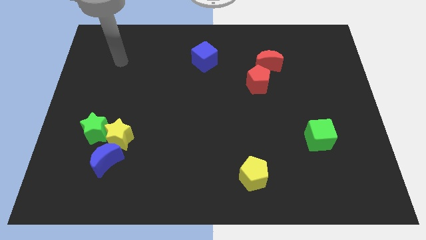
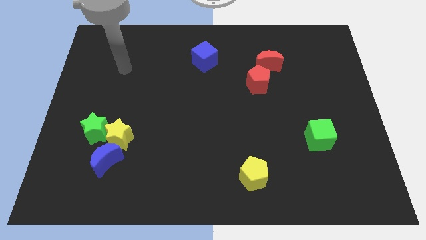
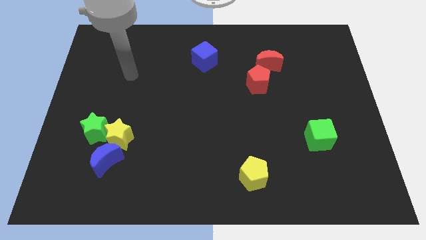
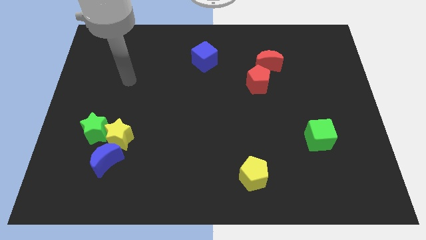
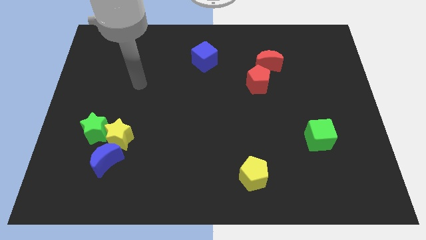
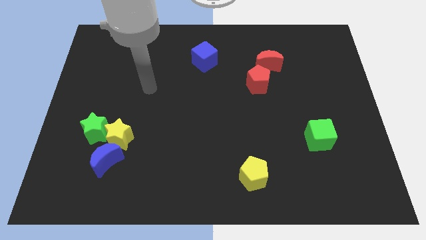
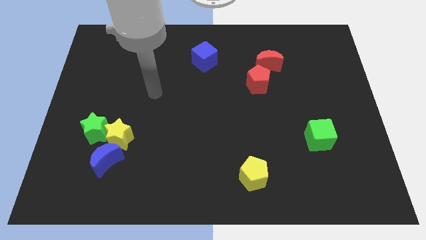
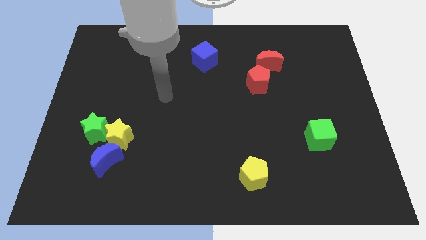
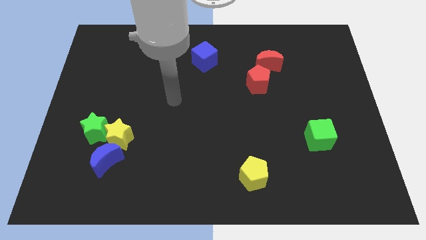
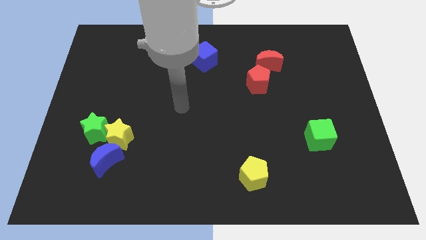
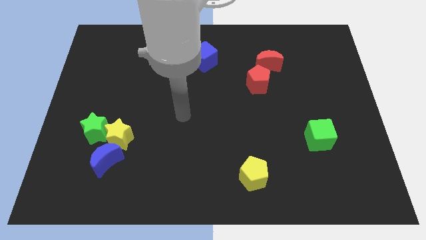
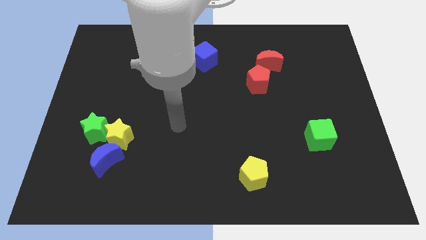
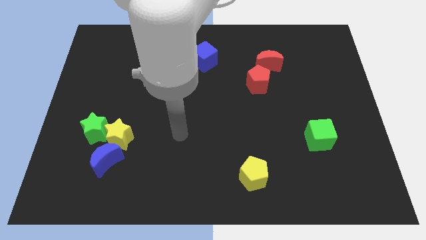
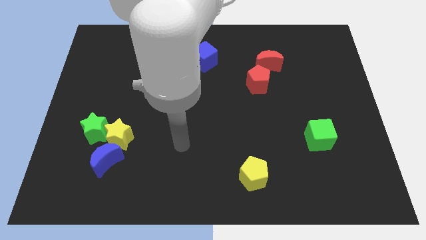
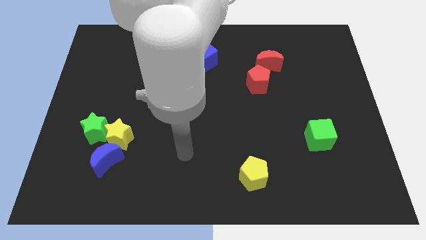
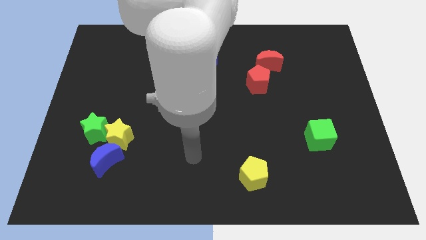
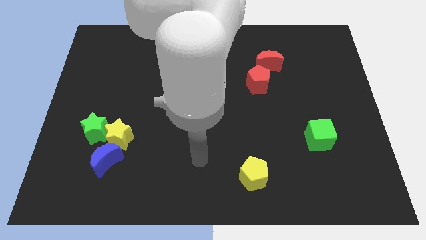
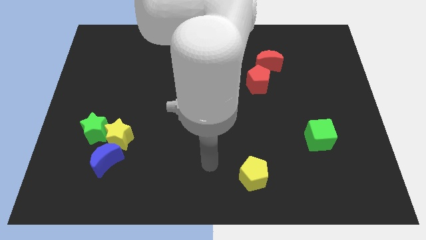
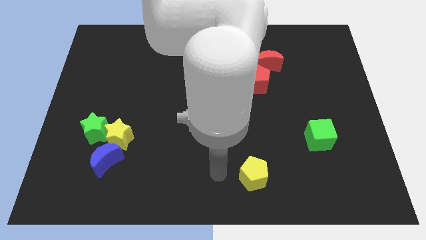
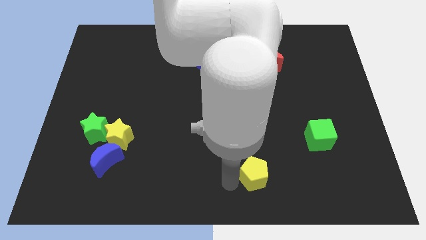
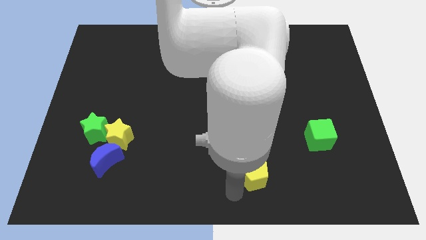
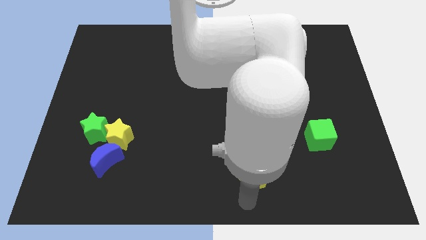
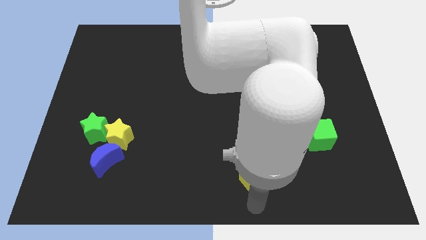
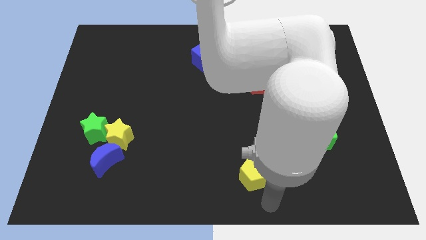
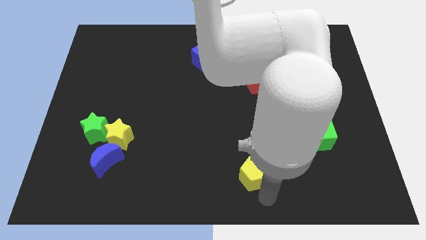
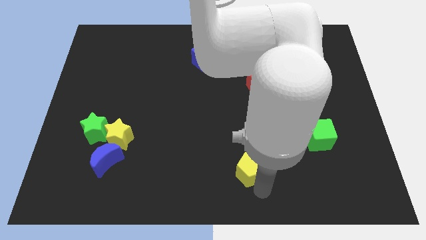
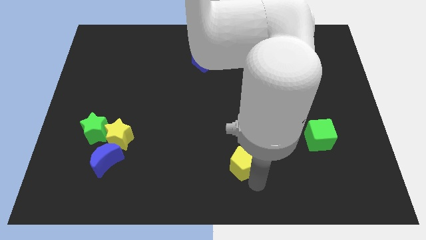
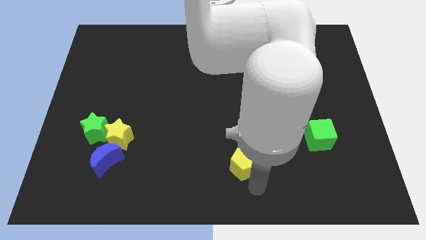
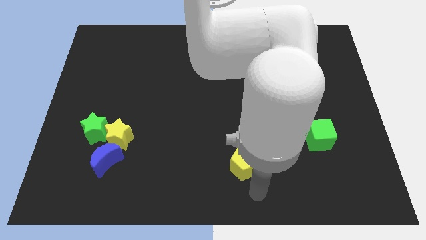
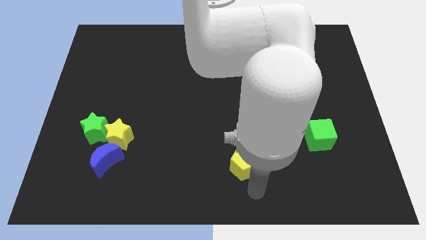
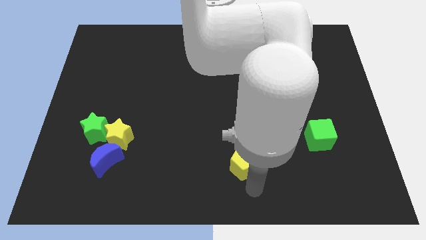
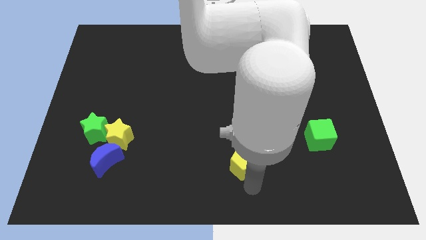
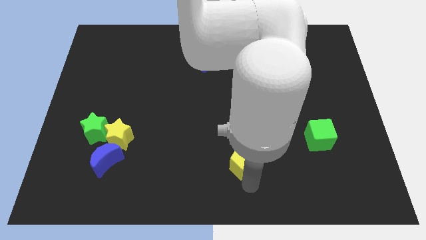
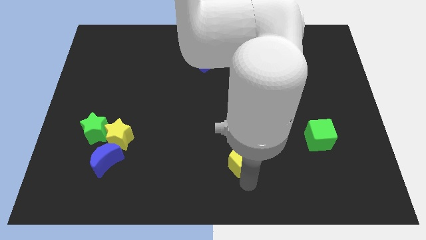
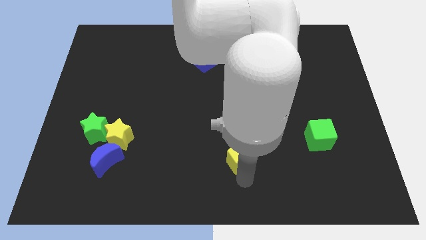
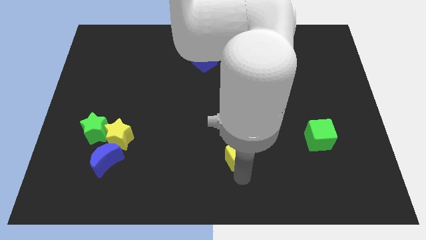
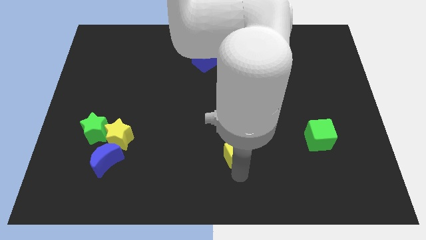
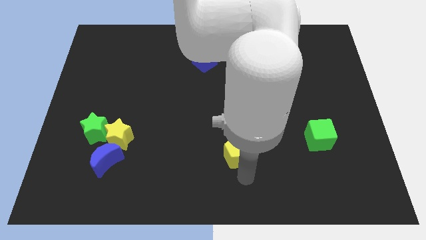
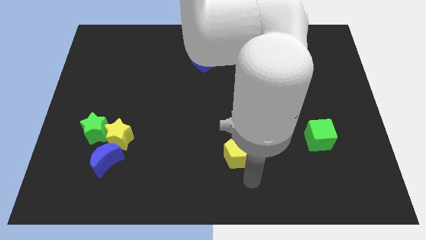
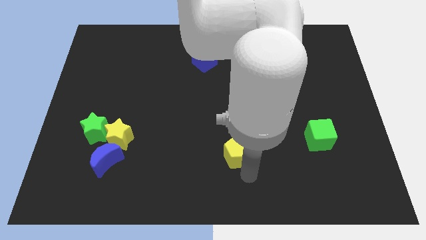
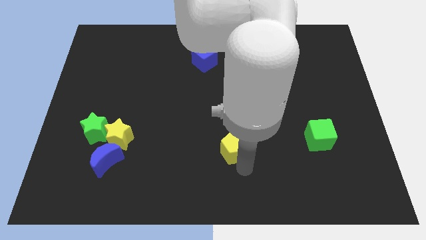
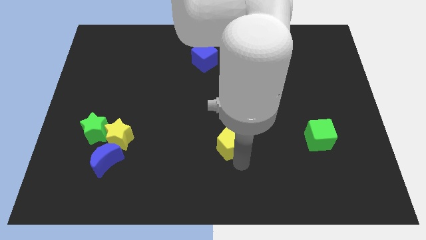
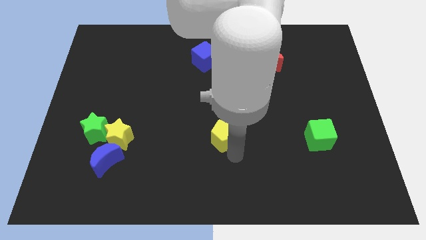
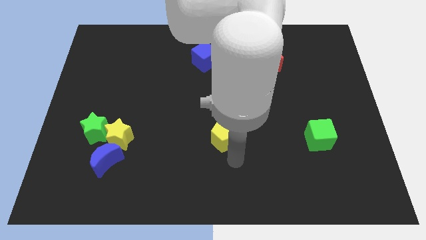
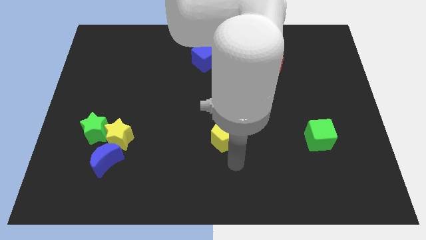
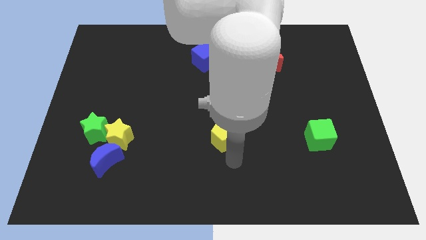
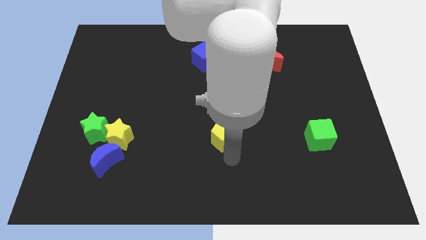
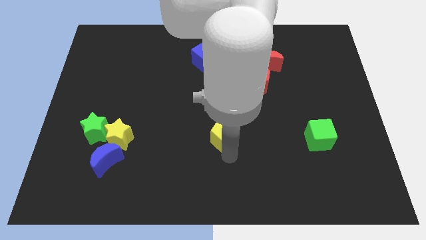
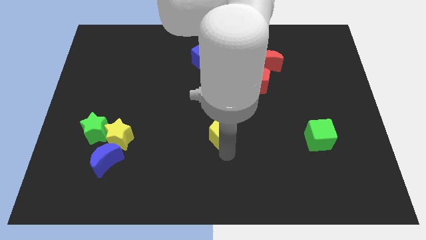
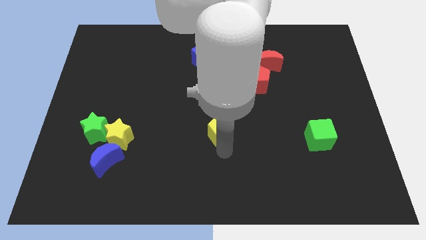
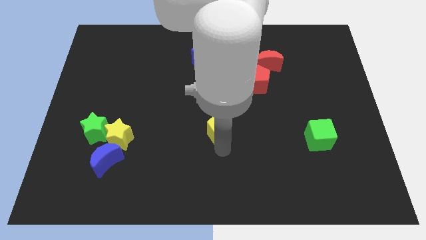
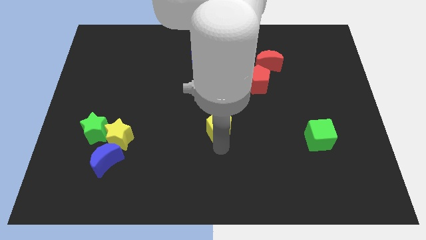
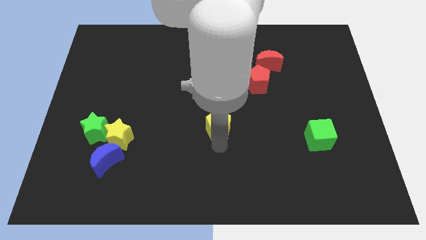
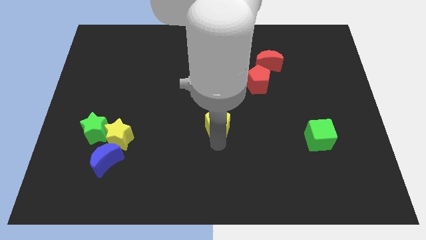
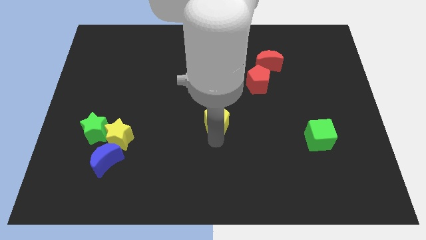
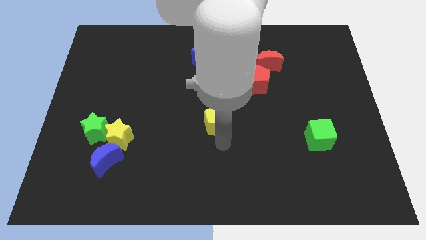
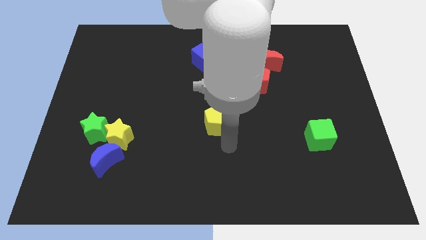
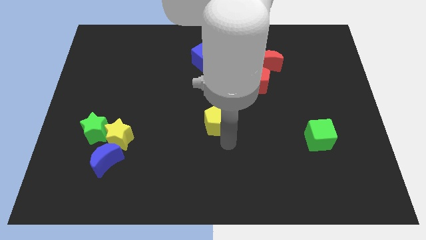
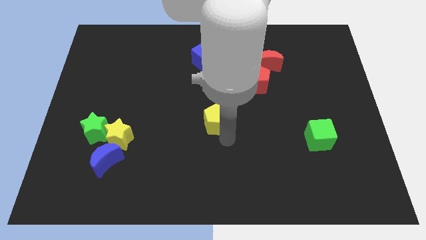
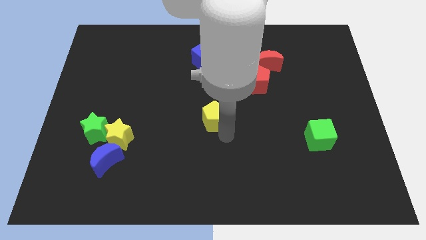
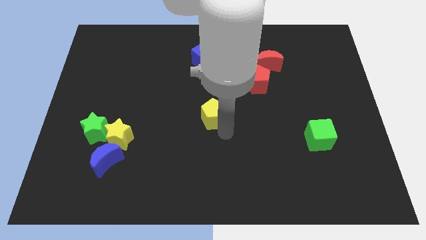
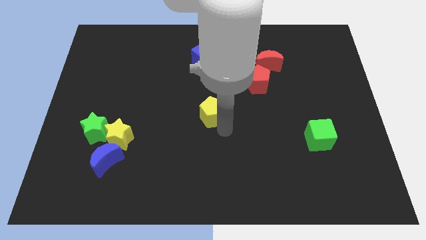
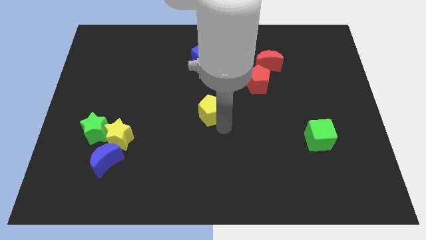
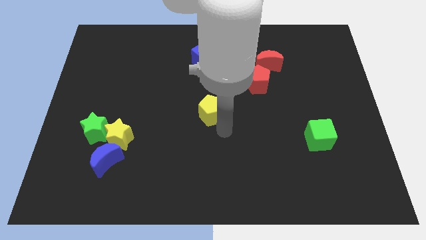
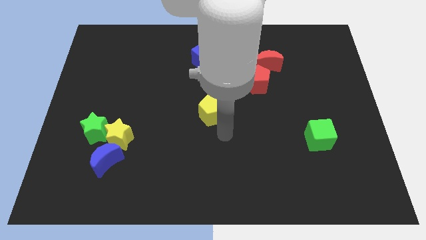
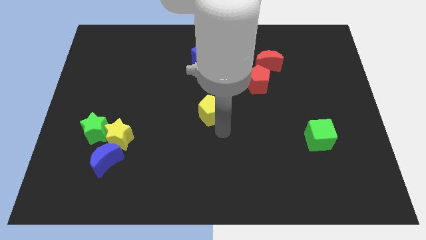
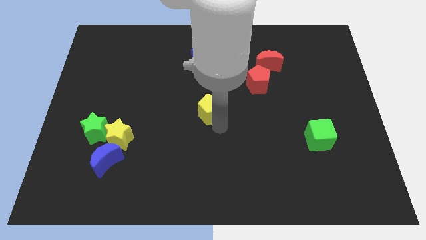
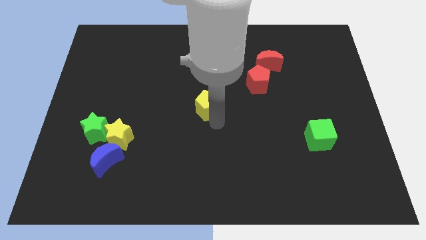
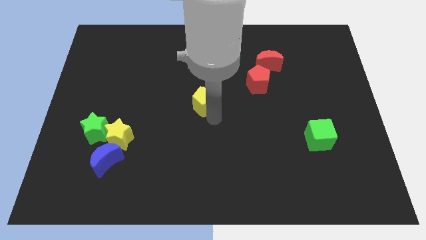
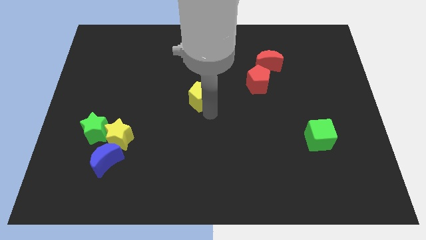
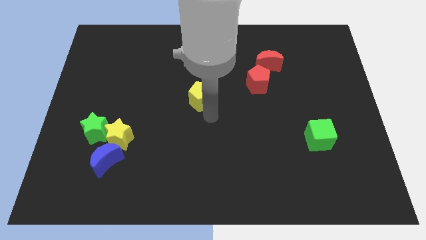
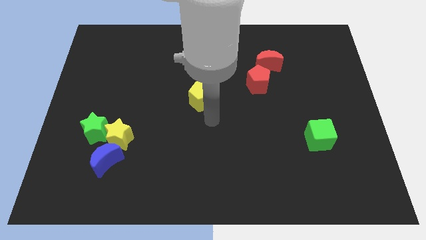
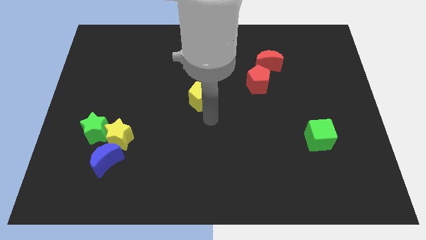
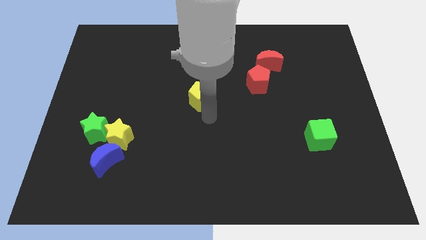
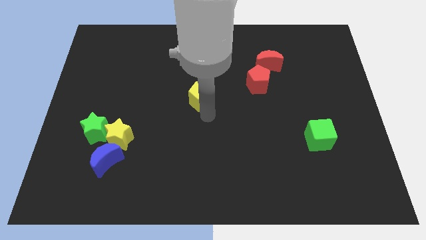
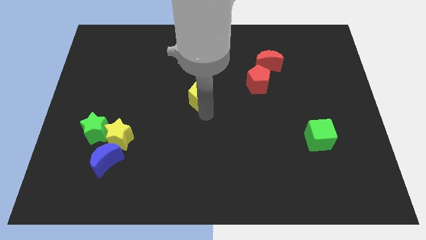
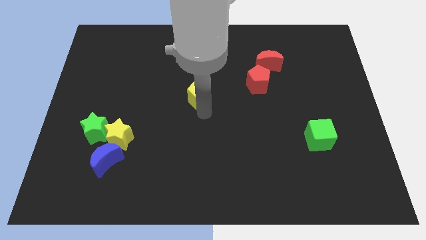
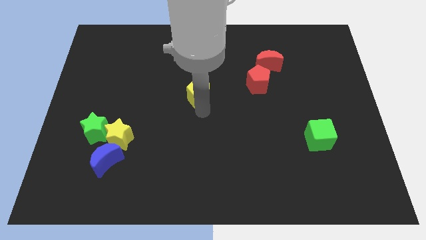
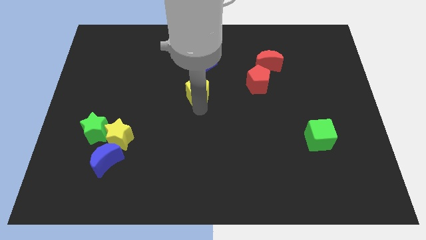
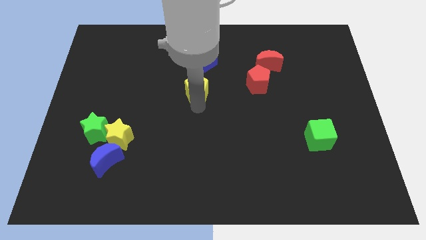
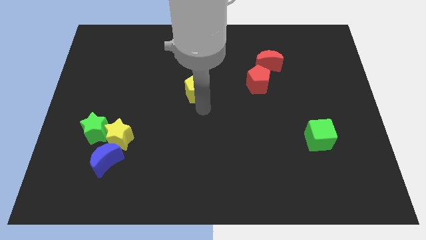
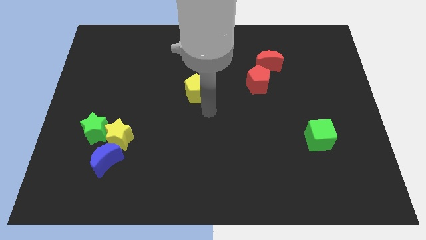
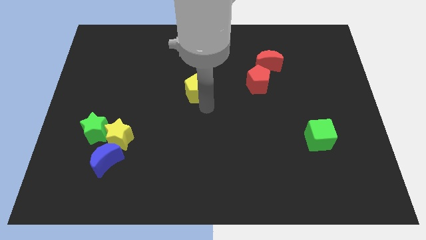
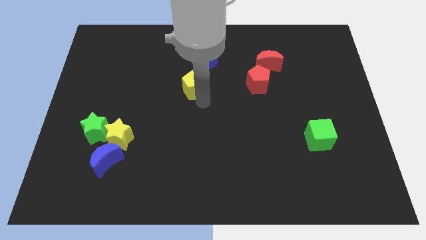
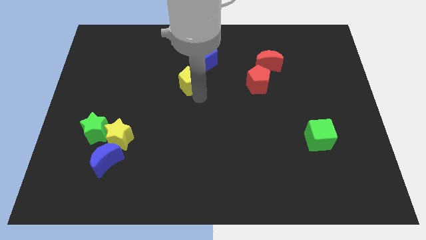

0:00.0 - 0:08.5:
put the yellow pentagon diagonally down and to the left of the blue cube
